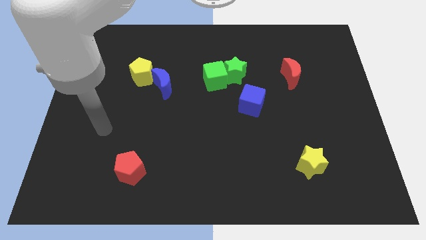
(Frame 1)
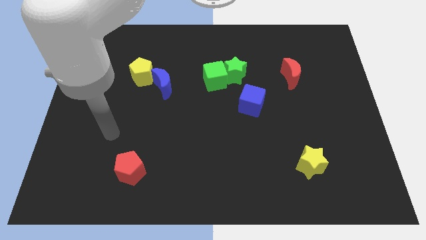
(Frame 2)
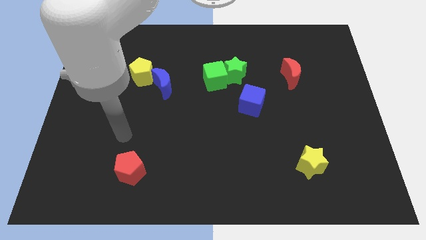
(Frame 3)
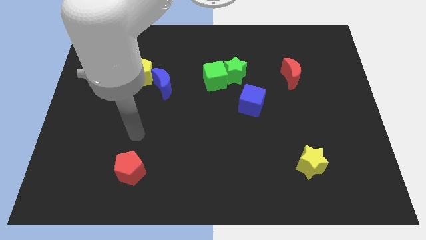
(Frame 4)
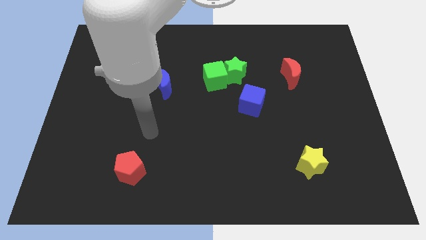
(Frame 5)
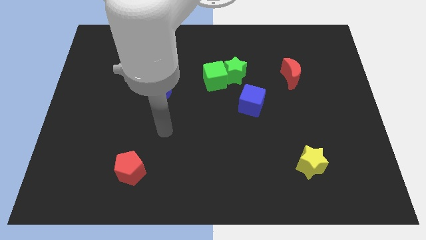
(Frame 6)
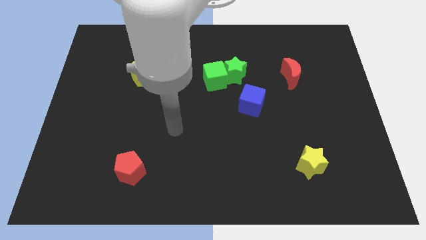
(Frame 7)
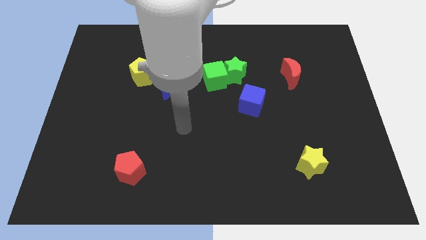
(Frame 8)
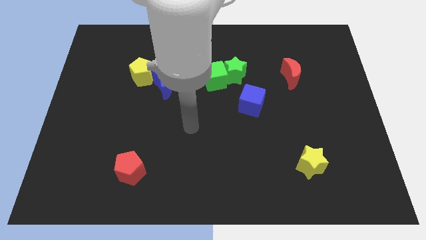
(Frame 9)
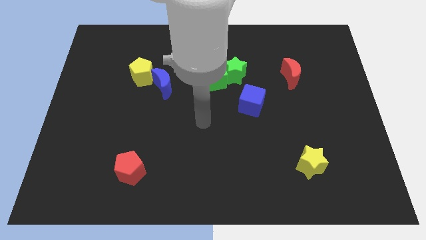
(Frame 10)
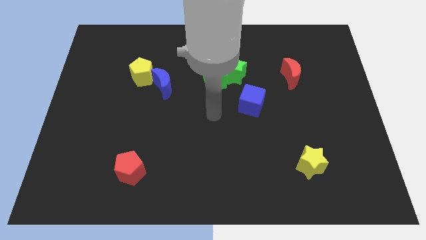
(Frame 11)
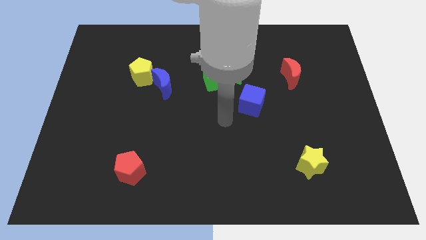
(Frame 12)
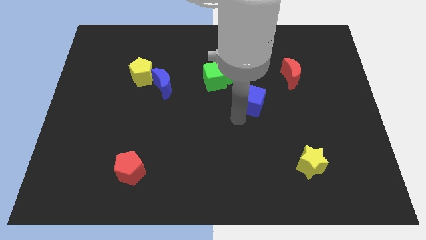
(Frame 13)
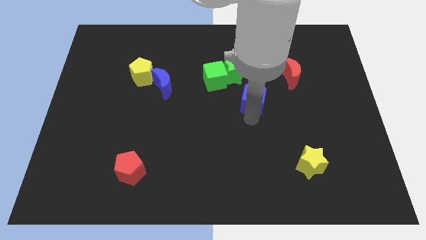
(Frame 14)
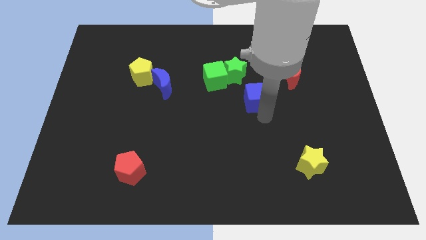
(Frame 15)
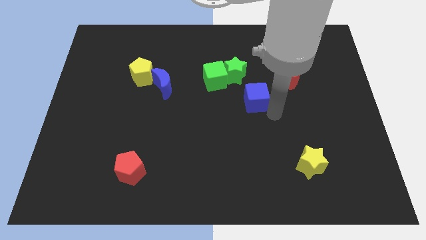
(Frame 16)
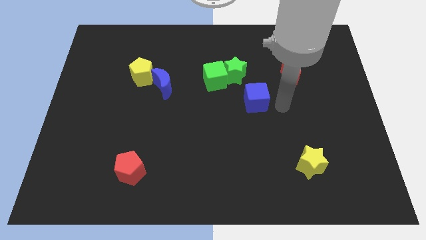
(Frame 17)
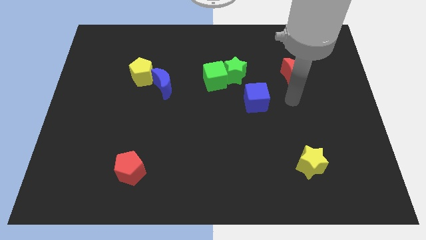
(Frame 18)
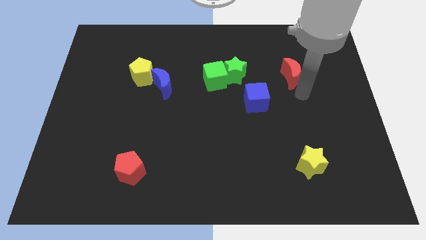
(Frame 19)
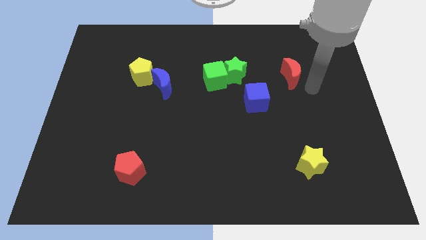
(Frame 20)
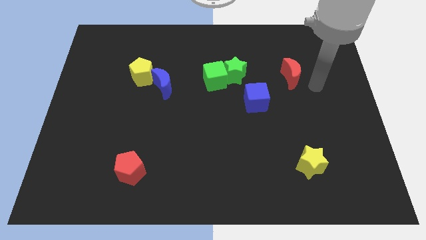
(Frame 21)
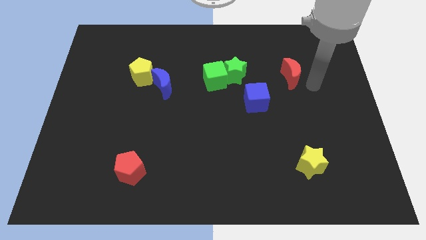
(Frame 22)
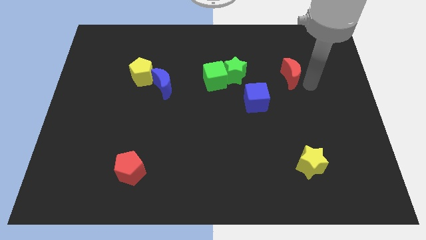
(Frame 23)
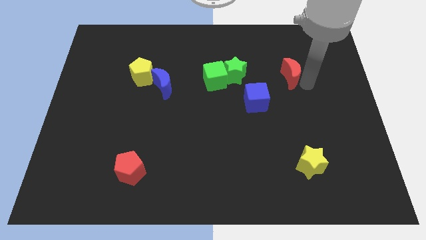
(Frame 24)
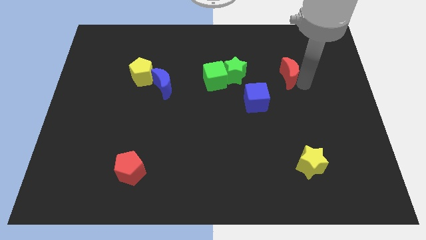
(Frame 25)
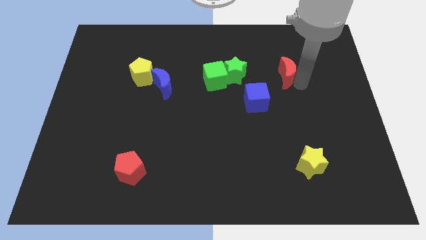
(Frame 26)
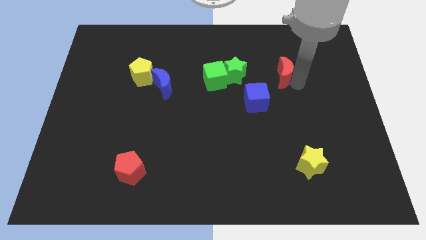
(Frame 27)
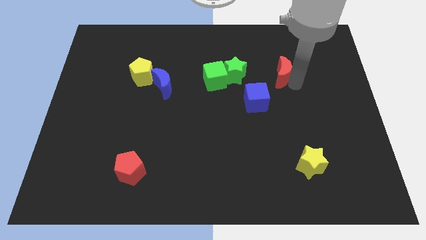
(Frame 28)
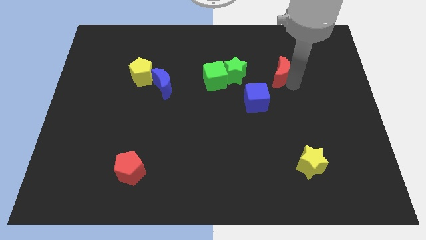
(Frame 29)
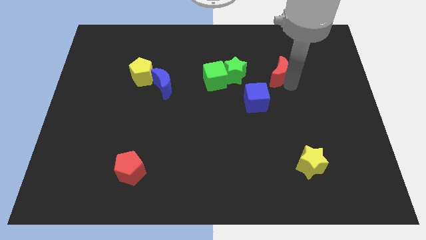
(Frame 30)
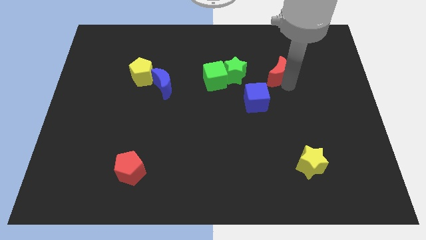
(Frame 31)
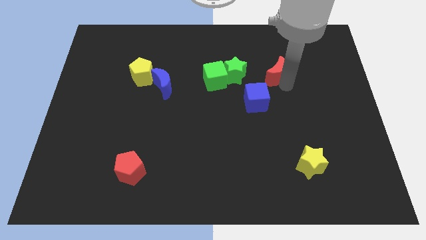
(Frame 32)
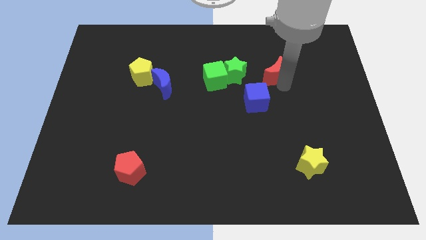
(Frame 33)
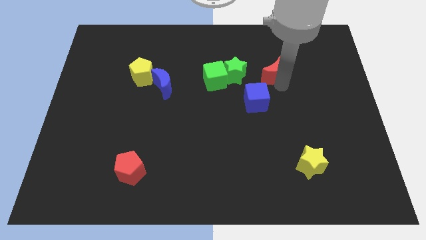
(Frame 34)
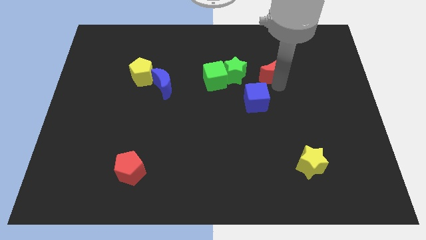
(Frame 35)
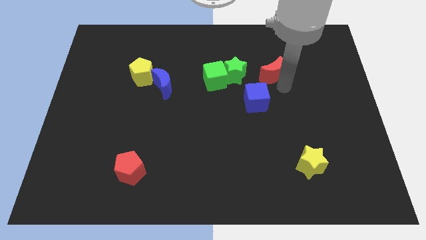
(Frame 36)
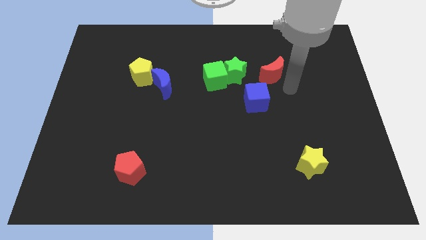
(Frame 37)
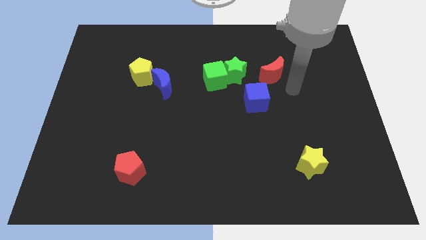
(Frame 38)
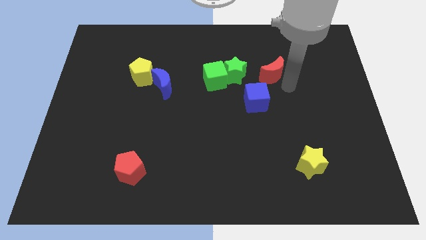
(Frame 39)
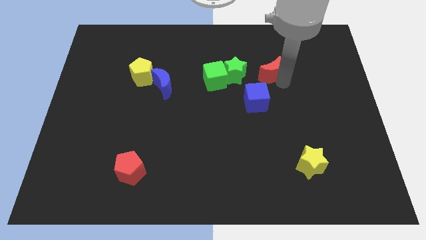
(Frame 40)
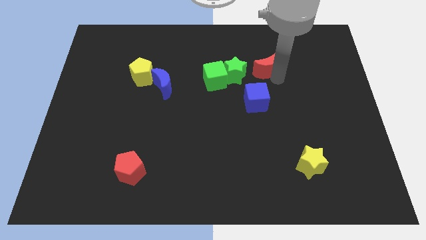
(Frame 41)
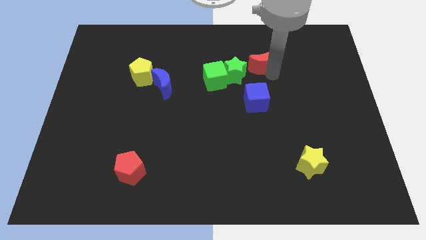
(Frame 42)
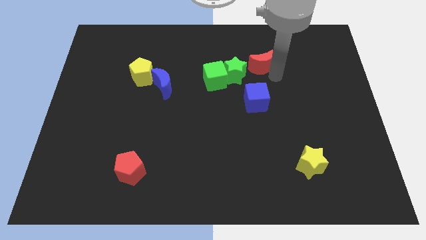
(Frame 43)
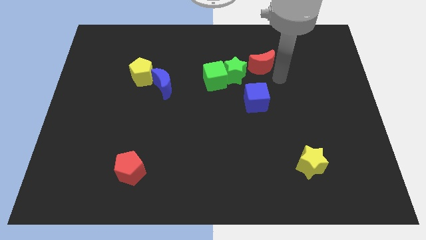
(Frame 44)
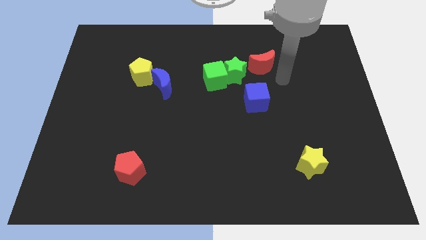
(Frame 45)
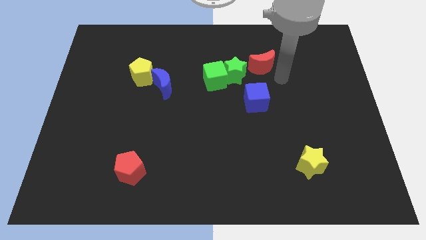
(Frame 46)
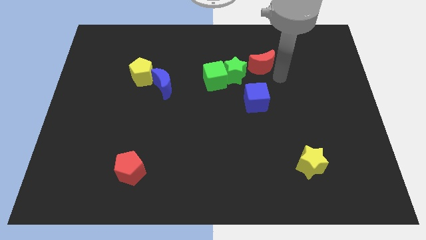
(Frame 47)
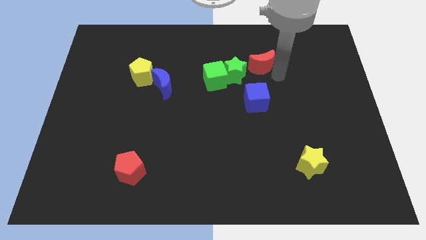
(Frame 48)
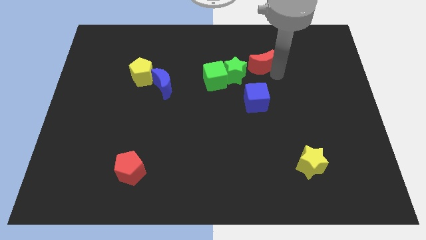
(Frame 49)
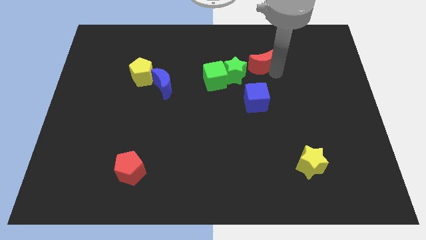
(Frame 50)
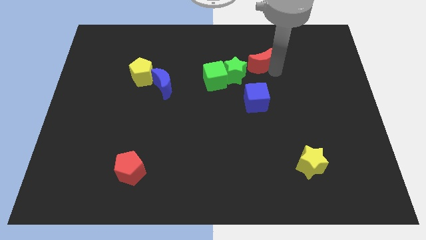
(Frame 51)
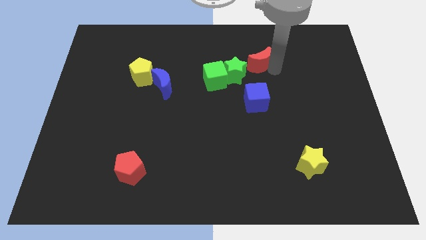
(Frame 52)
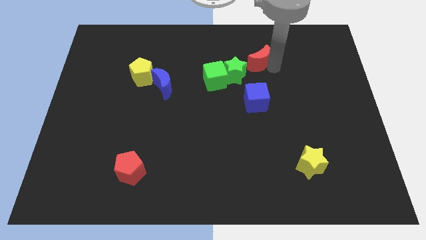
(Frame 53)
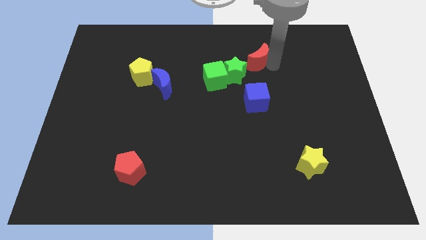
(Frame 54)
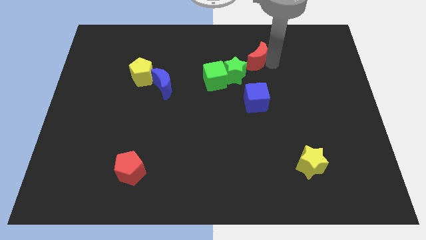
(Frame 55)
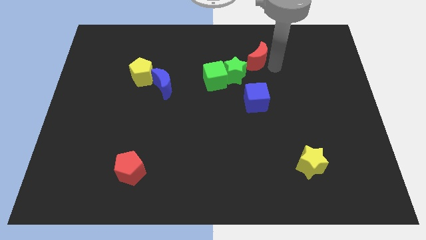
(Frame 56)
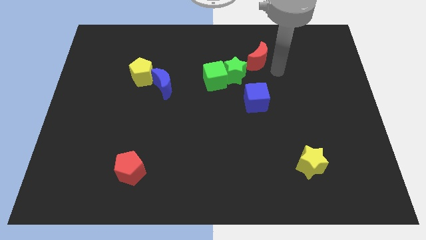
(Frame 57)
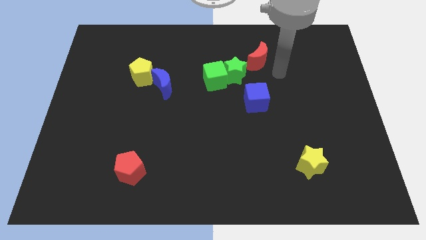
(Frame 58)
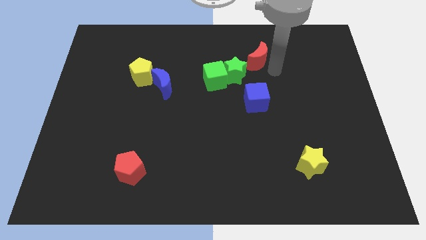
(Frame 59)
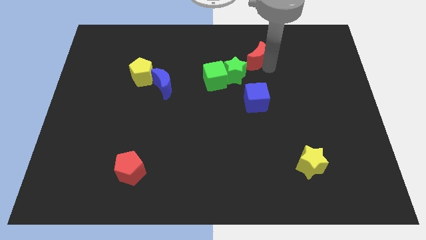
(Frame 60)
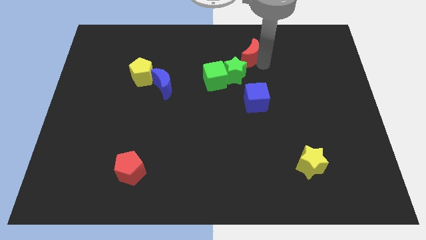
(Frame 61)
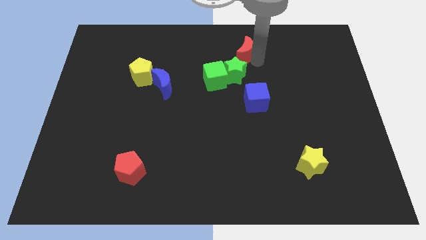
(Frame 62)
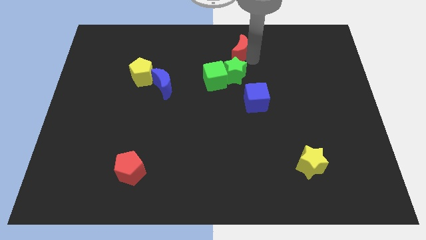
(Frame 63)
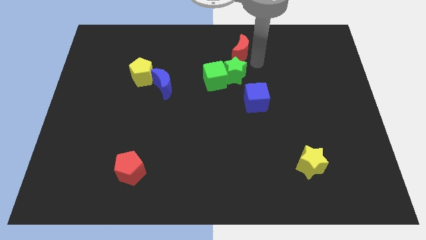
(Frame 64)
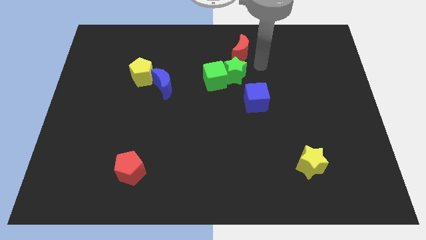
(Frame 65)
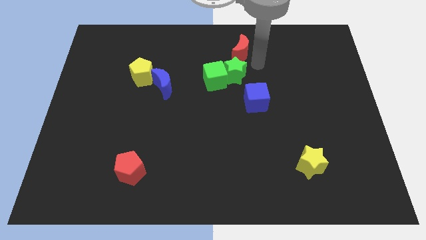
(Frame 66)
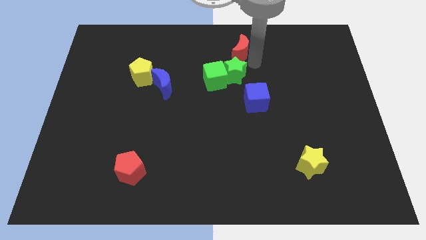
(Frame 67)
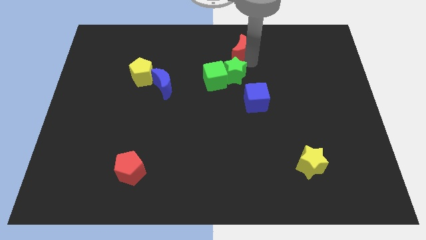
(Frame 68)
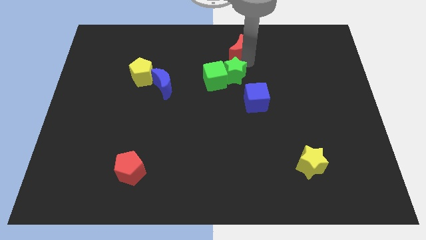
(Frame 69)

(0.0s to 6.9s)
move the red moon to the top side
